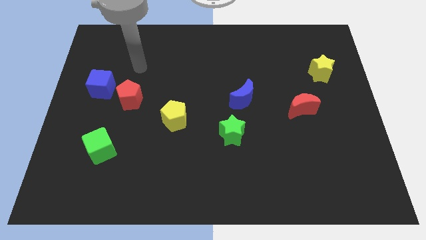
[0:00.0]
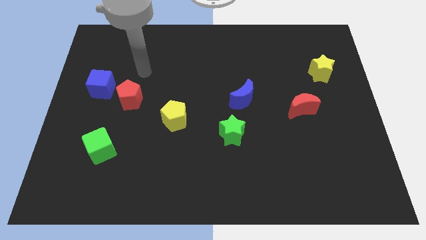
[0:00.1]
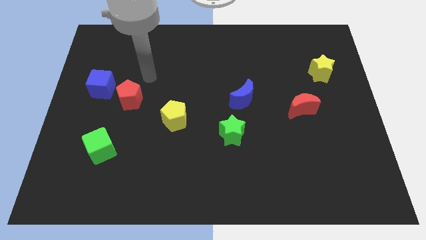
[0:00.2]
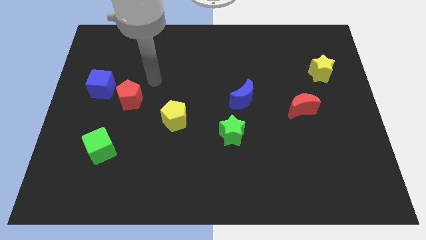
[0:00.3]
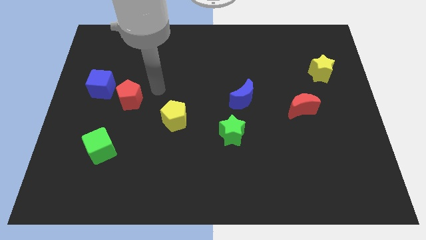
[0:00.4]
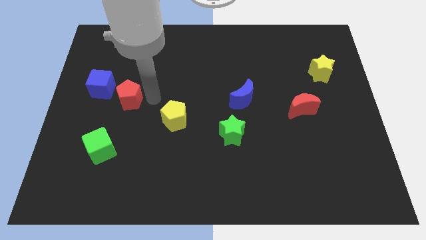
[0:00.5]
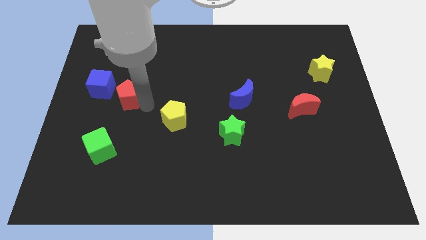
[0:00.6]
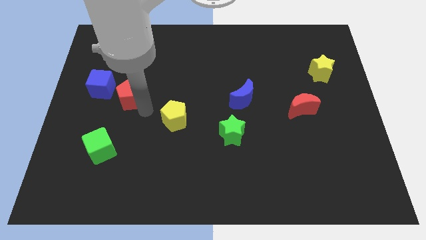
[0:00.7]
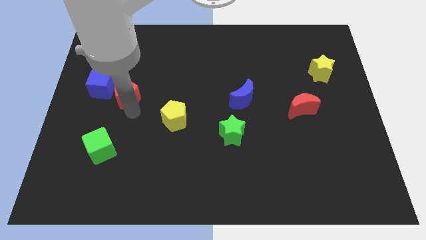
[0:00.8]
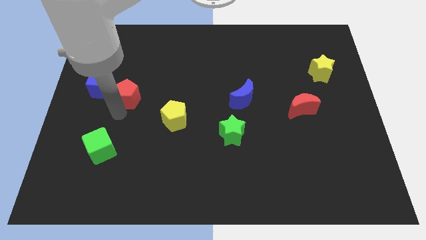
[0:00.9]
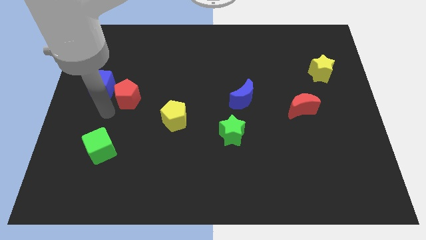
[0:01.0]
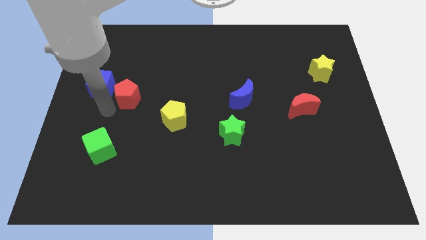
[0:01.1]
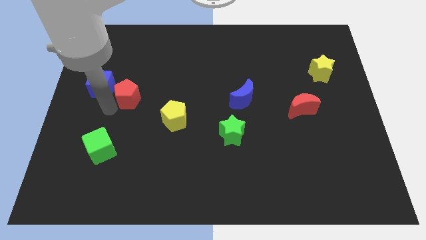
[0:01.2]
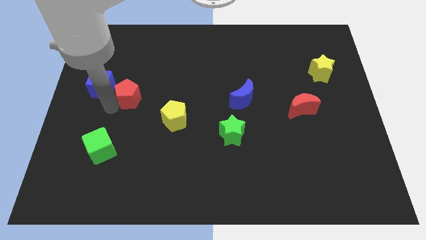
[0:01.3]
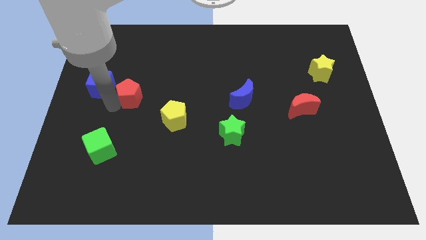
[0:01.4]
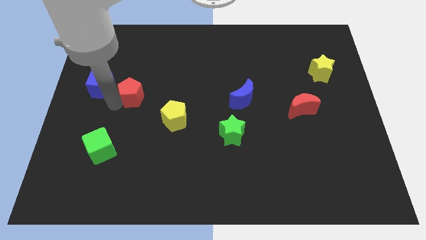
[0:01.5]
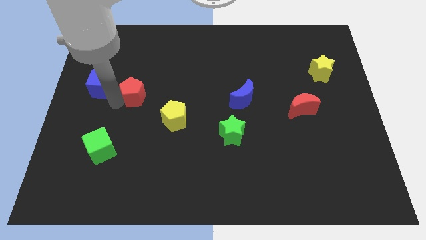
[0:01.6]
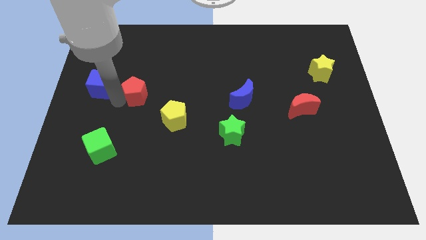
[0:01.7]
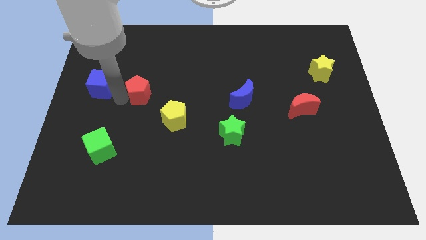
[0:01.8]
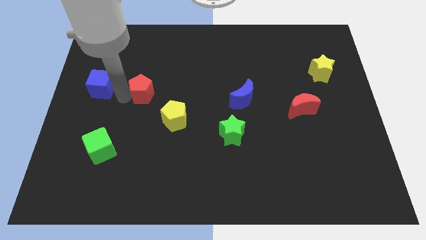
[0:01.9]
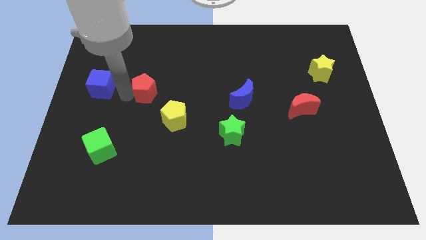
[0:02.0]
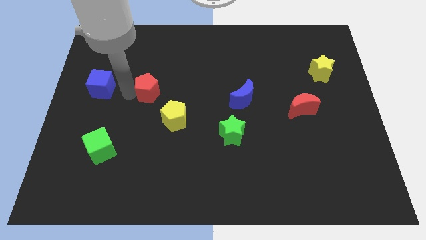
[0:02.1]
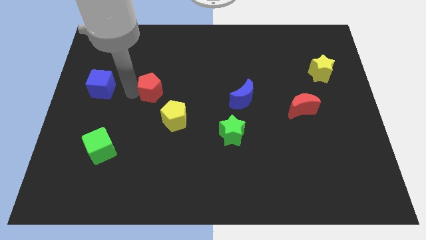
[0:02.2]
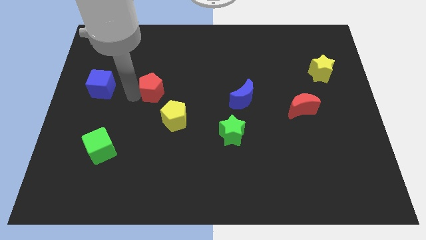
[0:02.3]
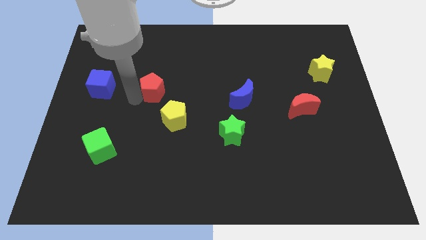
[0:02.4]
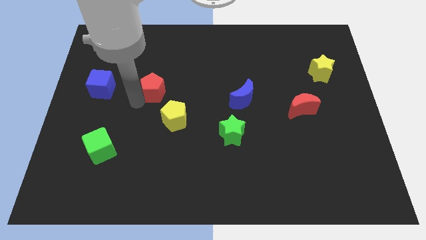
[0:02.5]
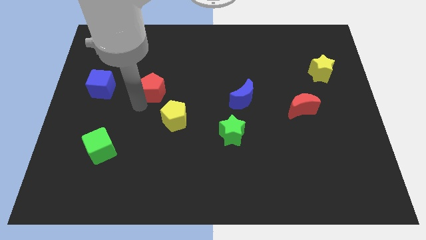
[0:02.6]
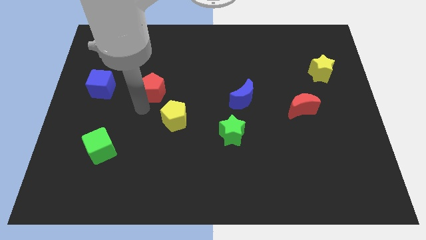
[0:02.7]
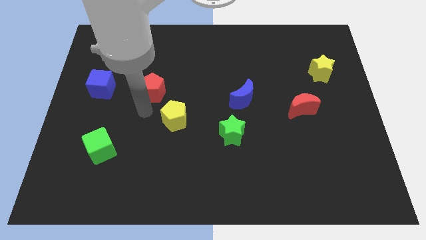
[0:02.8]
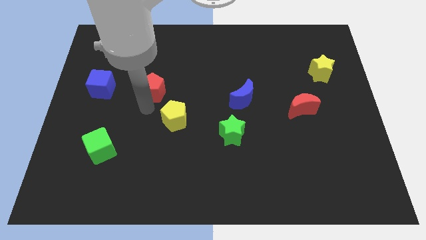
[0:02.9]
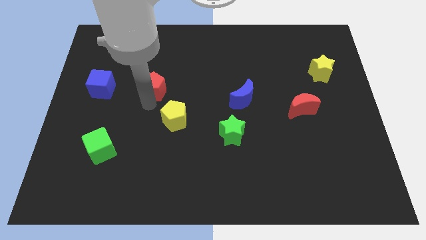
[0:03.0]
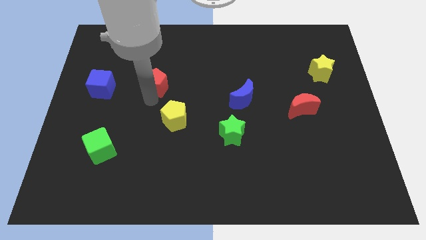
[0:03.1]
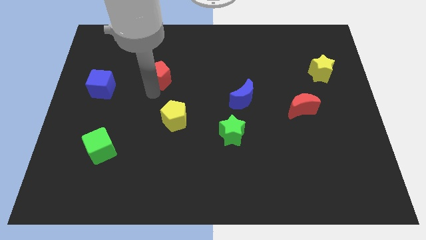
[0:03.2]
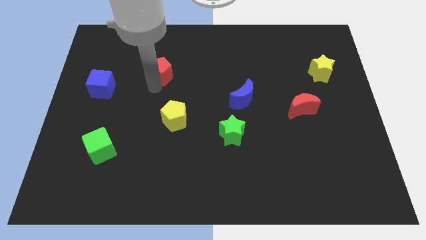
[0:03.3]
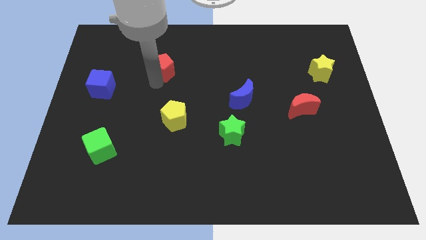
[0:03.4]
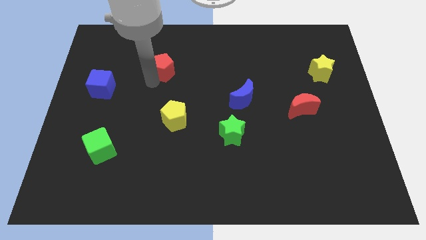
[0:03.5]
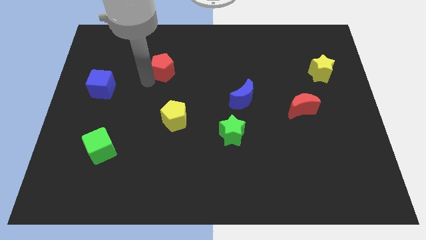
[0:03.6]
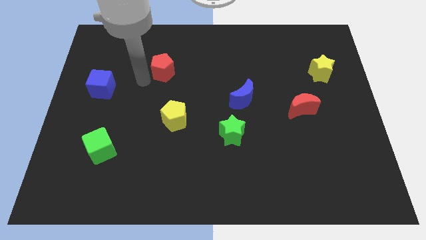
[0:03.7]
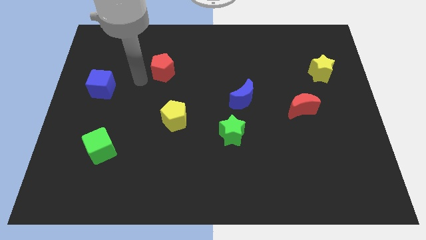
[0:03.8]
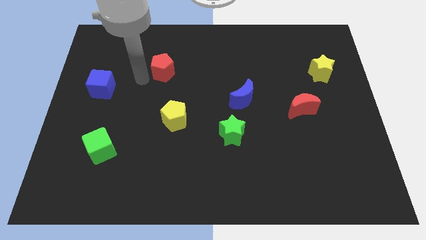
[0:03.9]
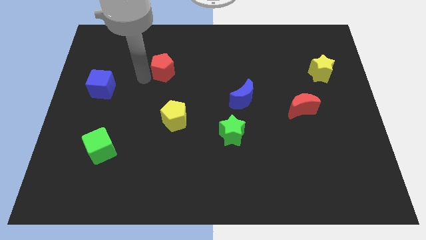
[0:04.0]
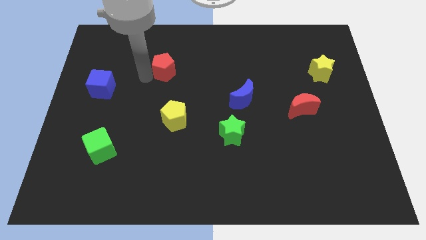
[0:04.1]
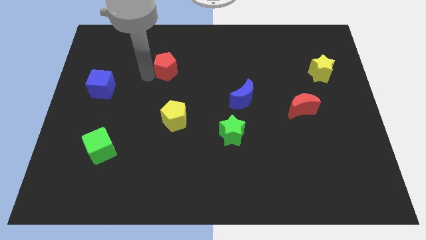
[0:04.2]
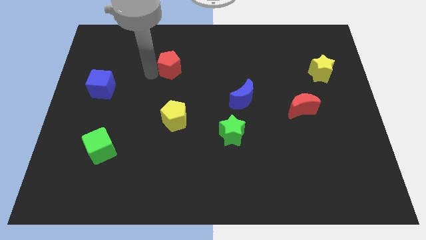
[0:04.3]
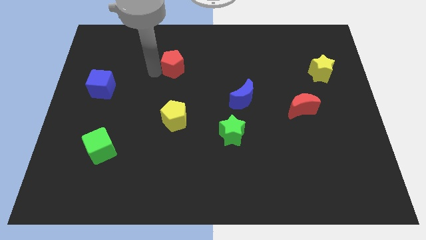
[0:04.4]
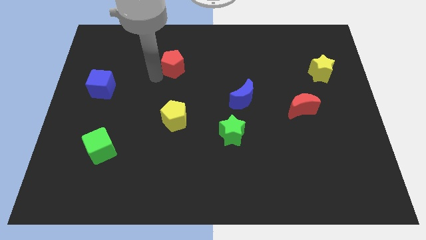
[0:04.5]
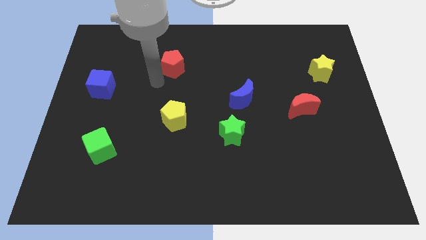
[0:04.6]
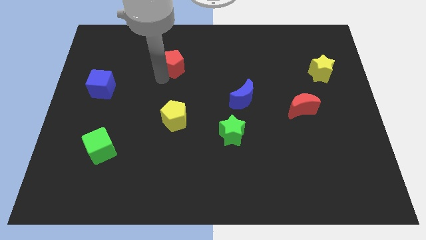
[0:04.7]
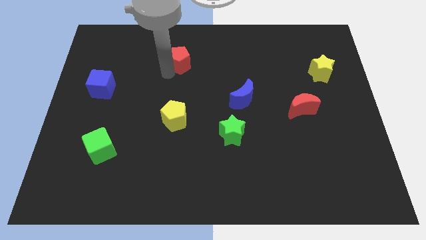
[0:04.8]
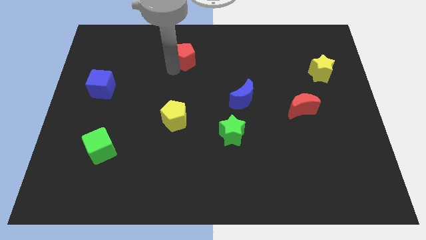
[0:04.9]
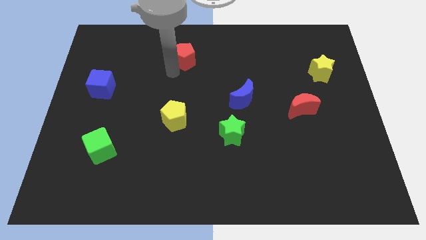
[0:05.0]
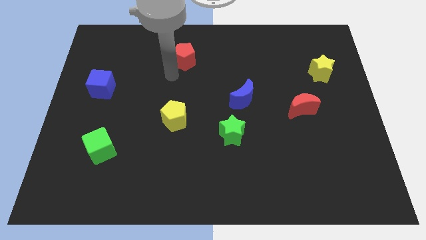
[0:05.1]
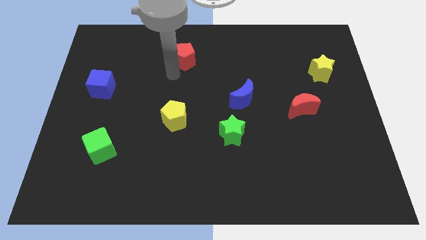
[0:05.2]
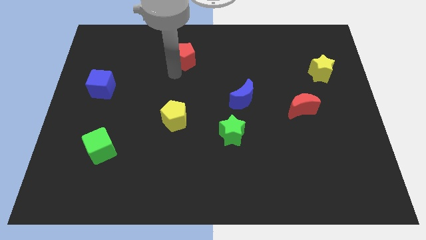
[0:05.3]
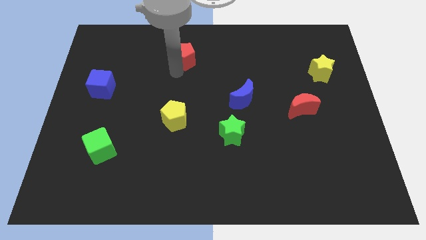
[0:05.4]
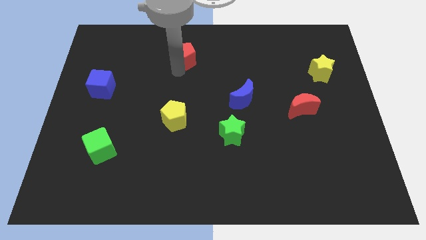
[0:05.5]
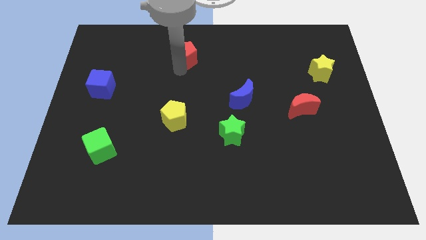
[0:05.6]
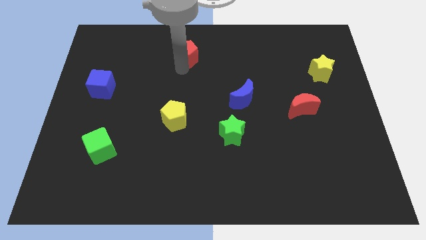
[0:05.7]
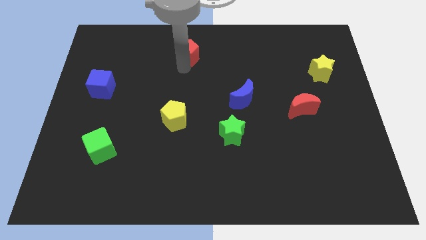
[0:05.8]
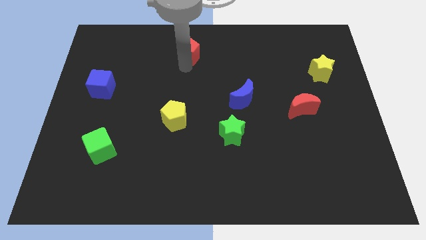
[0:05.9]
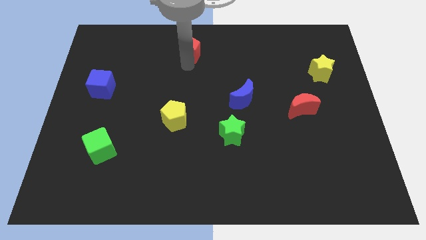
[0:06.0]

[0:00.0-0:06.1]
put the red pentagon to the top

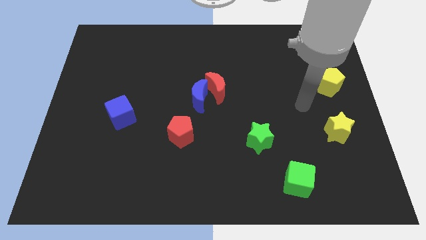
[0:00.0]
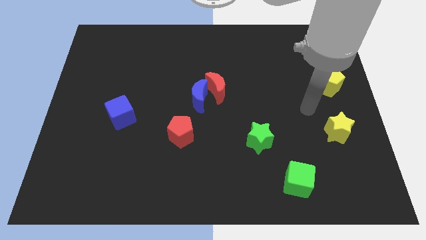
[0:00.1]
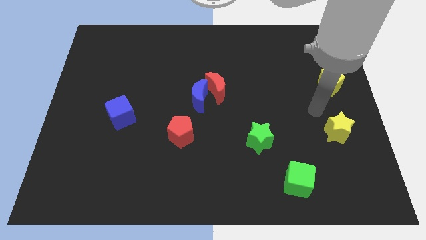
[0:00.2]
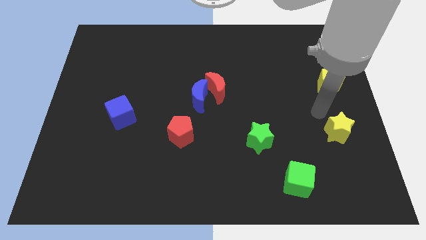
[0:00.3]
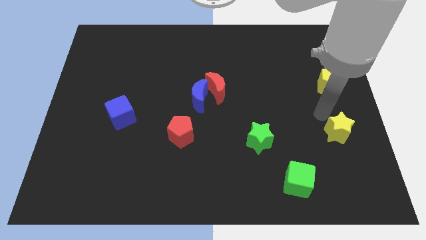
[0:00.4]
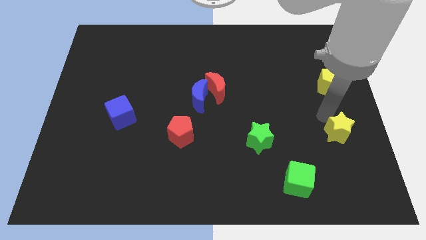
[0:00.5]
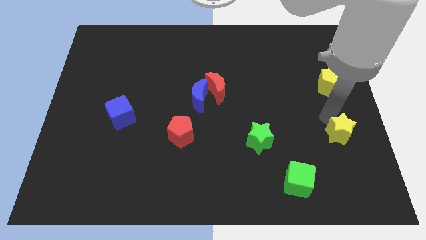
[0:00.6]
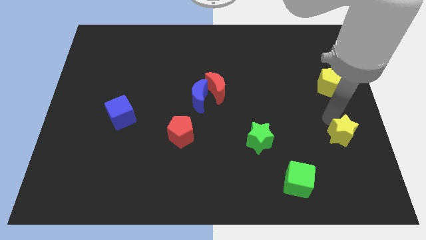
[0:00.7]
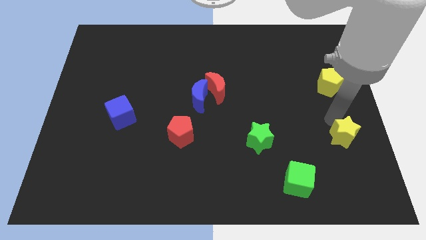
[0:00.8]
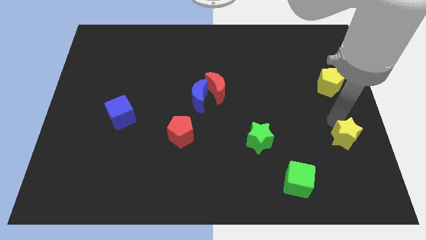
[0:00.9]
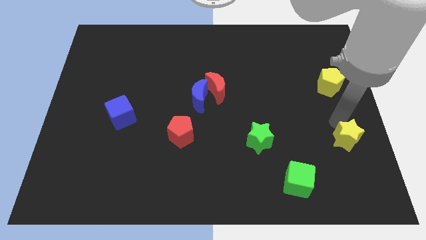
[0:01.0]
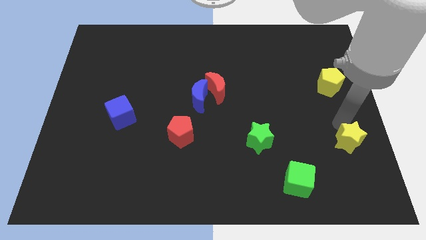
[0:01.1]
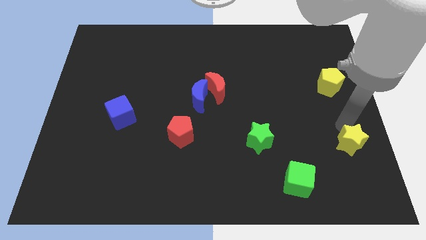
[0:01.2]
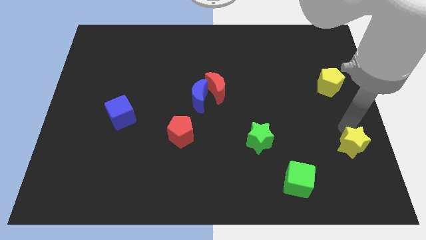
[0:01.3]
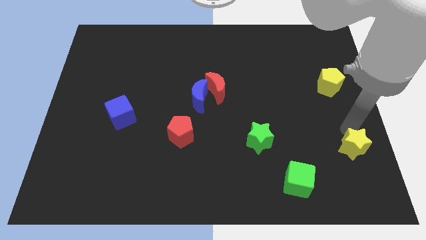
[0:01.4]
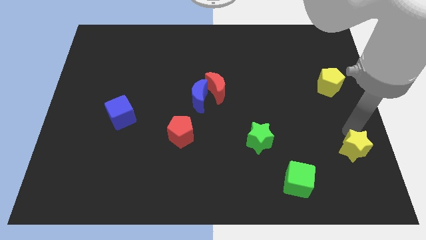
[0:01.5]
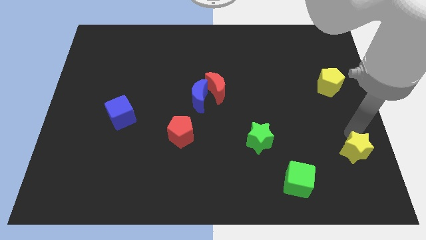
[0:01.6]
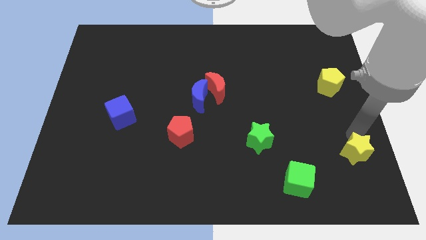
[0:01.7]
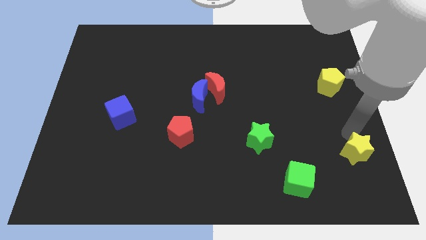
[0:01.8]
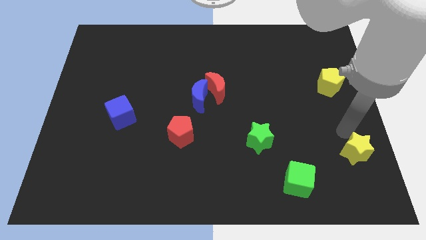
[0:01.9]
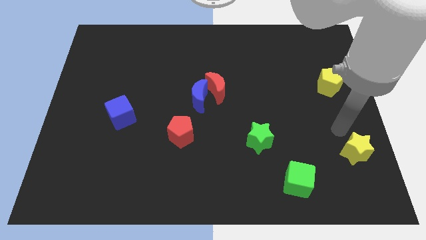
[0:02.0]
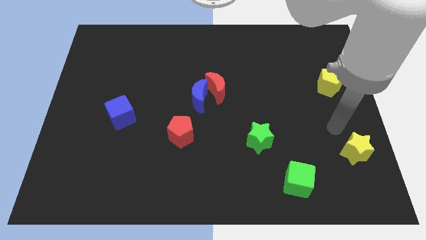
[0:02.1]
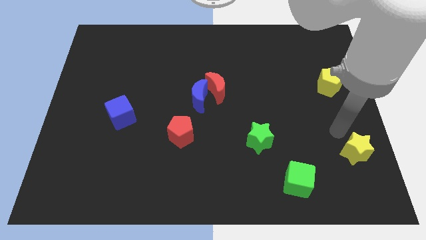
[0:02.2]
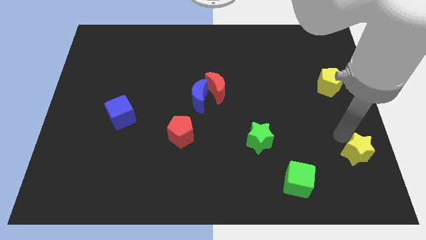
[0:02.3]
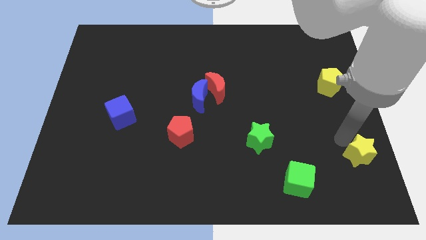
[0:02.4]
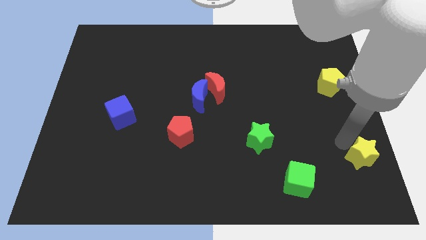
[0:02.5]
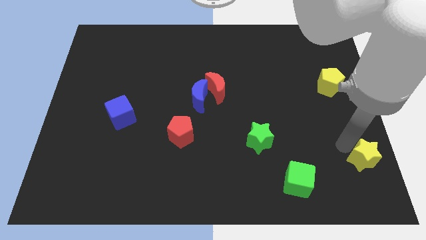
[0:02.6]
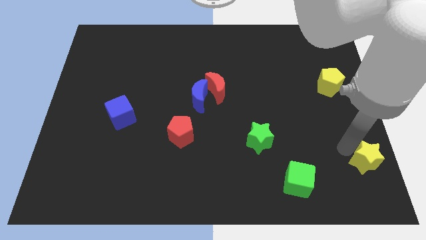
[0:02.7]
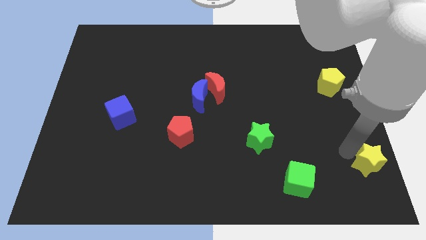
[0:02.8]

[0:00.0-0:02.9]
put the yellow star to the bottom right
